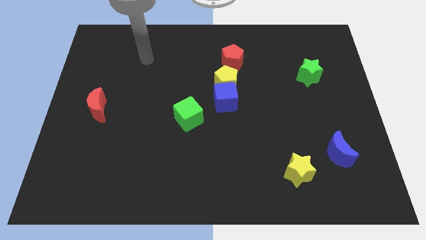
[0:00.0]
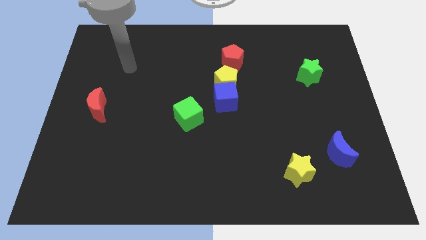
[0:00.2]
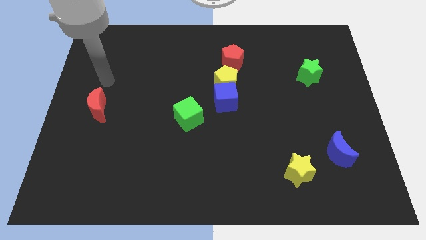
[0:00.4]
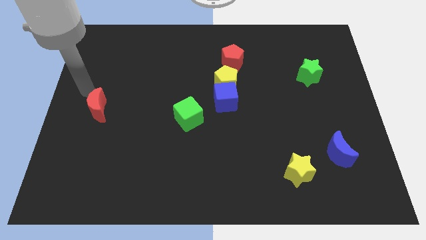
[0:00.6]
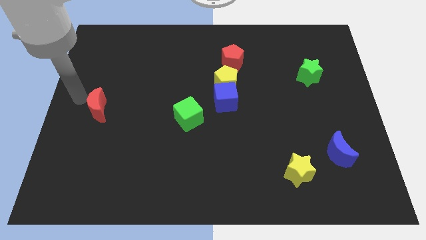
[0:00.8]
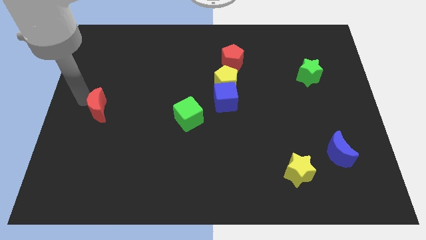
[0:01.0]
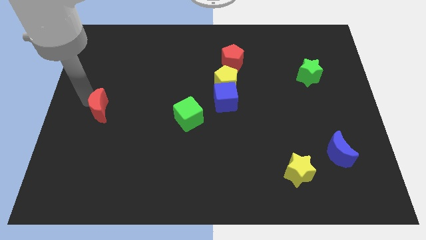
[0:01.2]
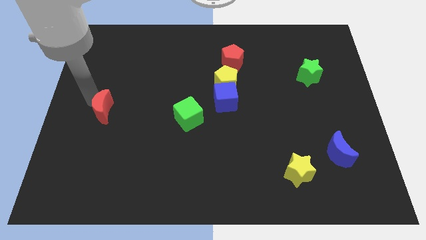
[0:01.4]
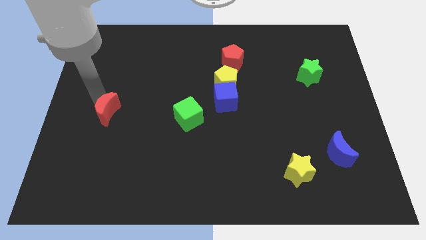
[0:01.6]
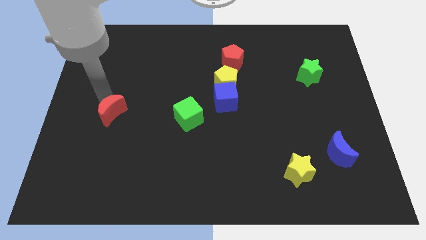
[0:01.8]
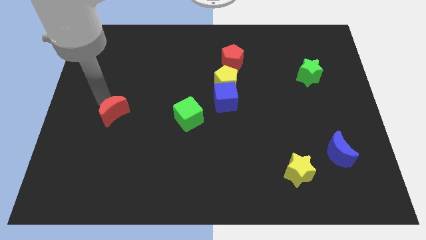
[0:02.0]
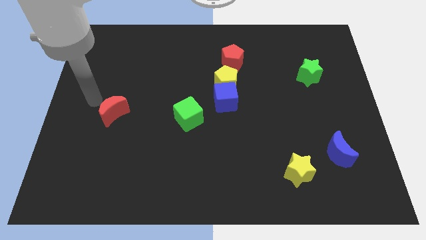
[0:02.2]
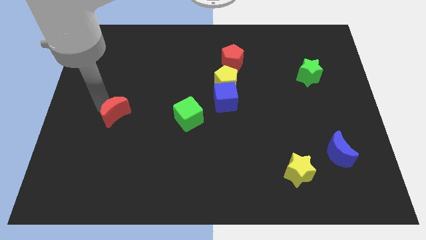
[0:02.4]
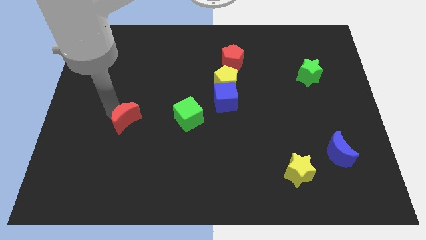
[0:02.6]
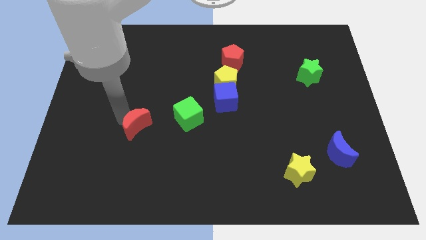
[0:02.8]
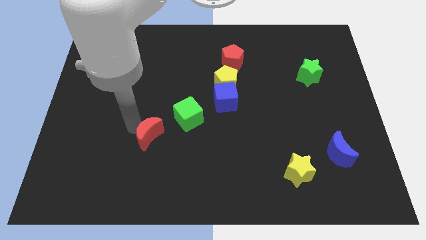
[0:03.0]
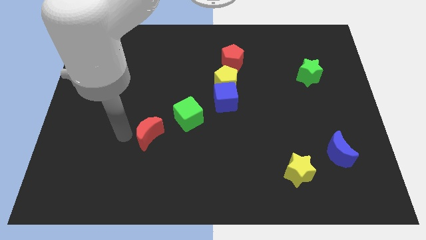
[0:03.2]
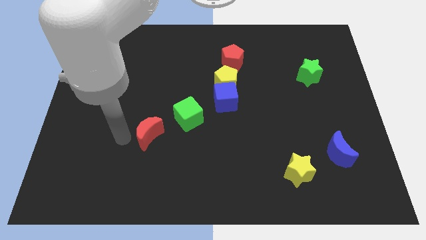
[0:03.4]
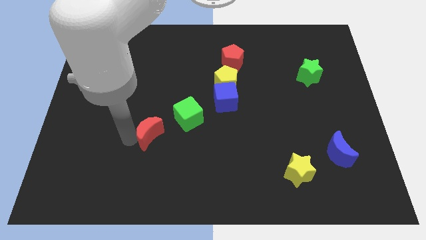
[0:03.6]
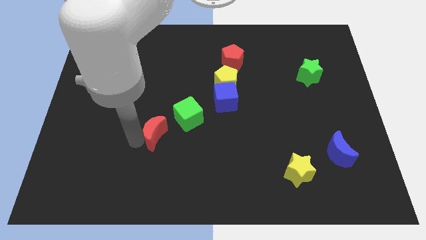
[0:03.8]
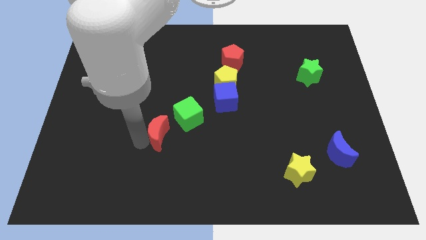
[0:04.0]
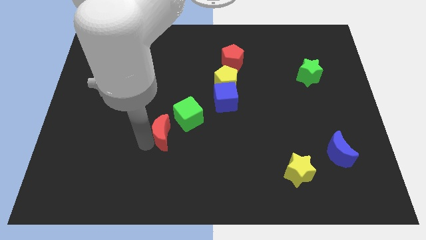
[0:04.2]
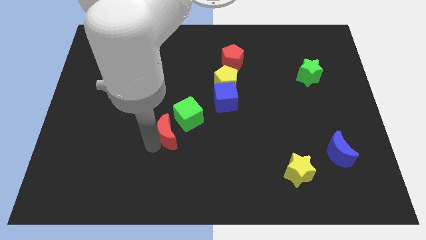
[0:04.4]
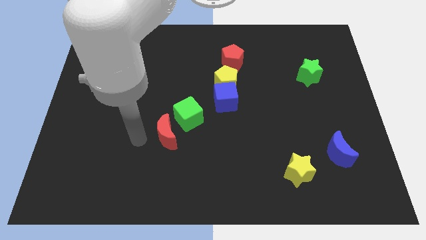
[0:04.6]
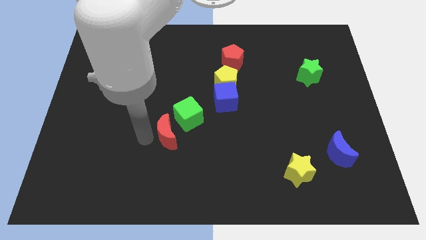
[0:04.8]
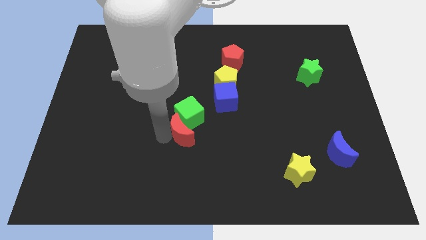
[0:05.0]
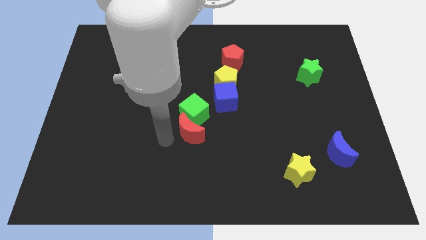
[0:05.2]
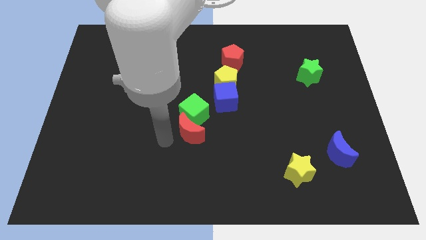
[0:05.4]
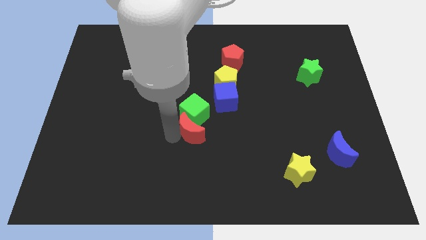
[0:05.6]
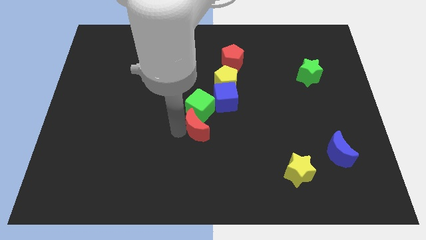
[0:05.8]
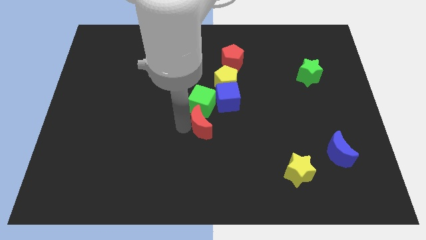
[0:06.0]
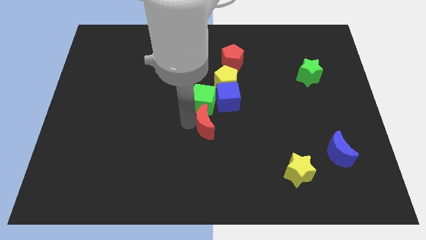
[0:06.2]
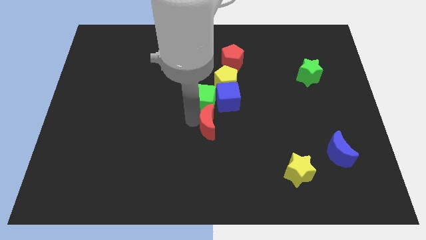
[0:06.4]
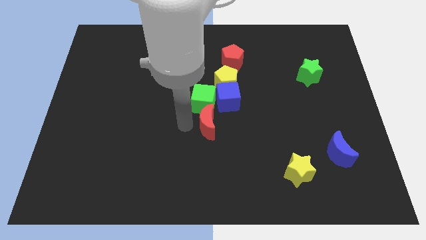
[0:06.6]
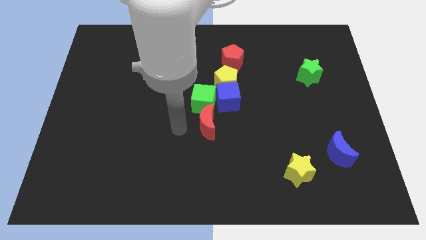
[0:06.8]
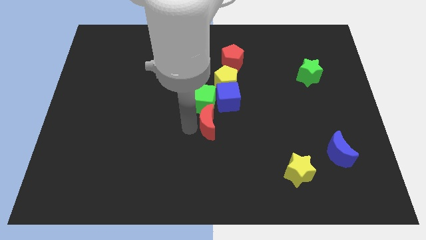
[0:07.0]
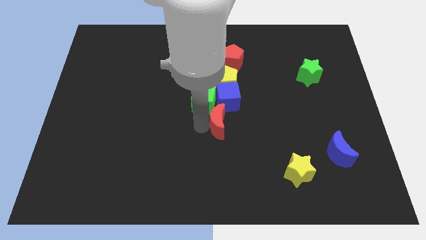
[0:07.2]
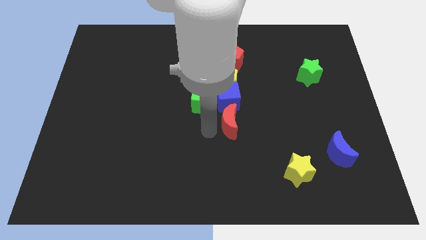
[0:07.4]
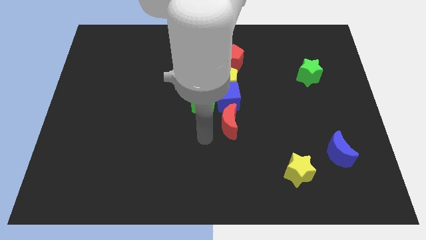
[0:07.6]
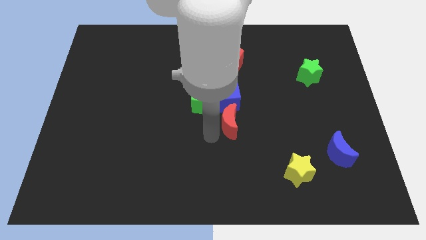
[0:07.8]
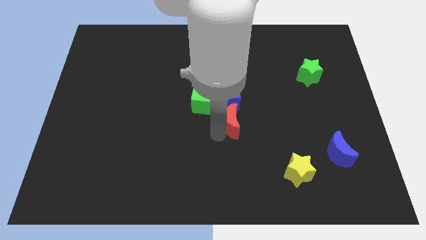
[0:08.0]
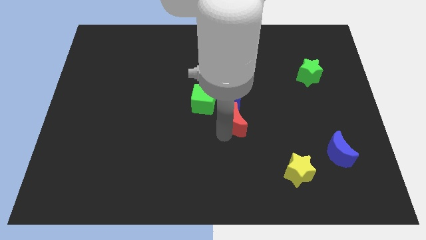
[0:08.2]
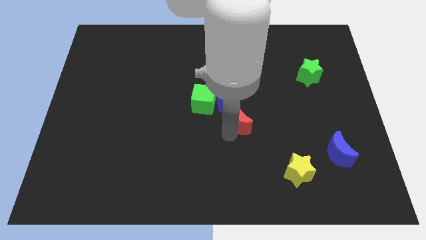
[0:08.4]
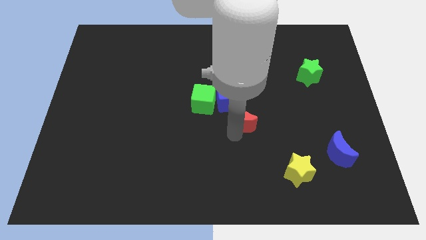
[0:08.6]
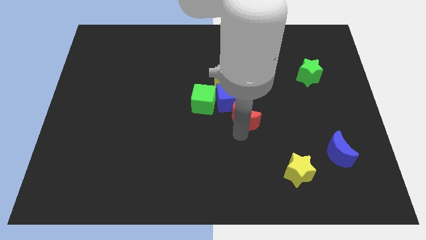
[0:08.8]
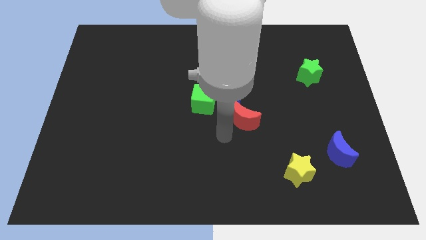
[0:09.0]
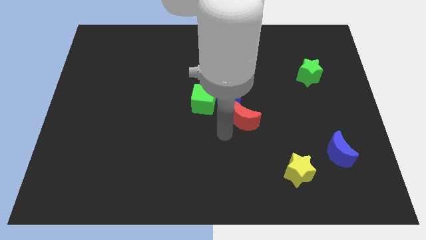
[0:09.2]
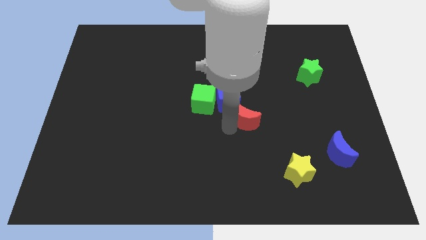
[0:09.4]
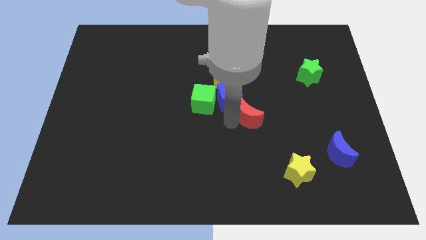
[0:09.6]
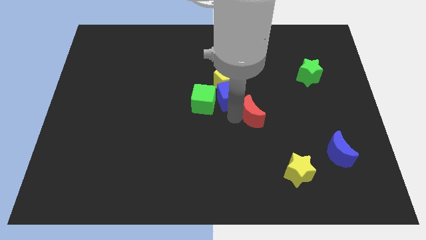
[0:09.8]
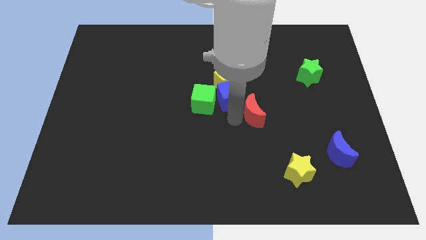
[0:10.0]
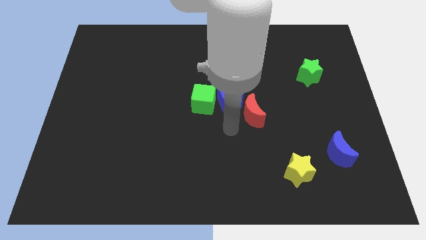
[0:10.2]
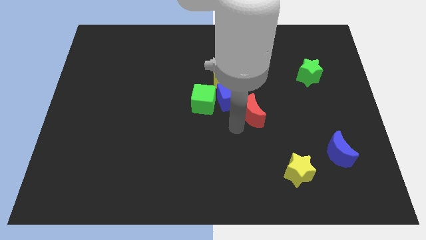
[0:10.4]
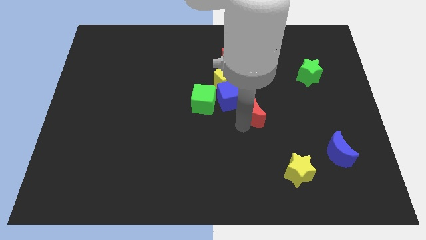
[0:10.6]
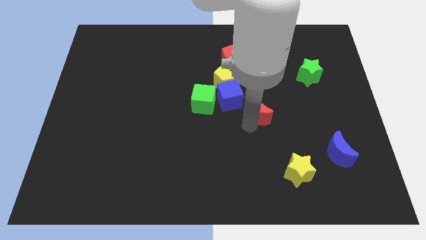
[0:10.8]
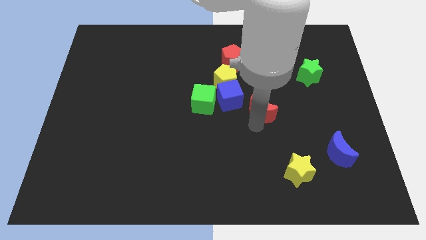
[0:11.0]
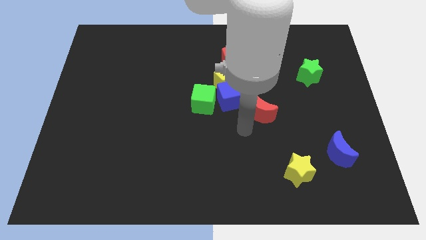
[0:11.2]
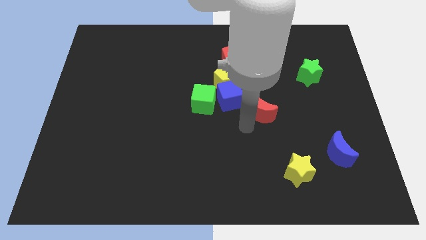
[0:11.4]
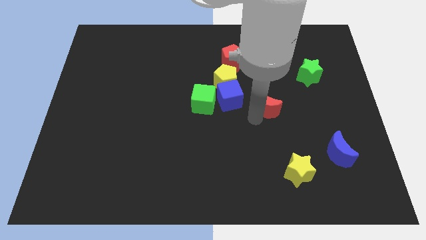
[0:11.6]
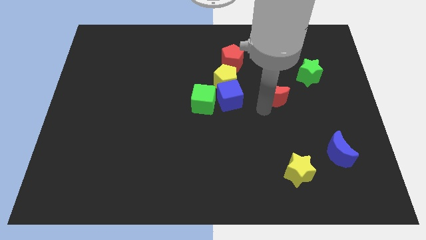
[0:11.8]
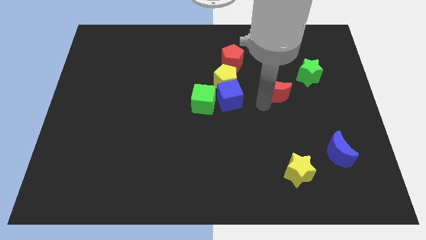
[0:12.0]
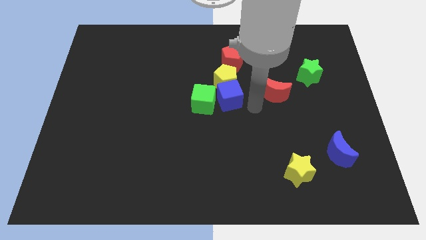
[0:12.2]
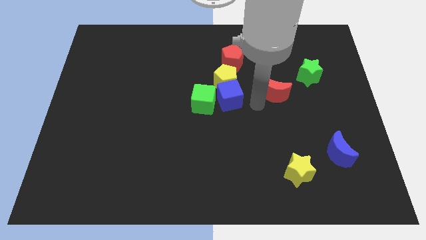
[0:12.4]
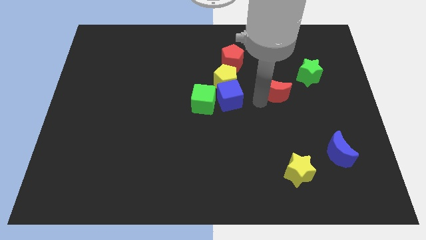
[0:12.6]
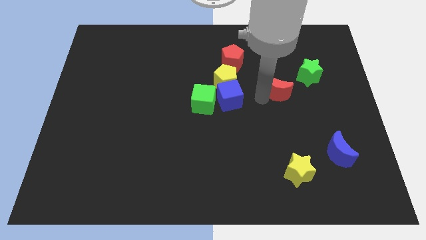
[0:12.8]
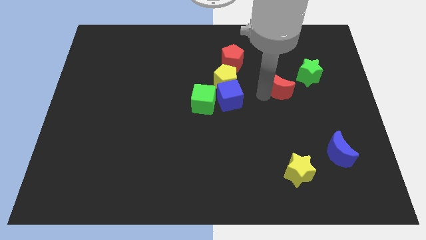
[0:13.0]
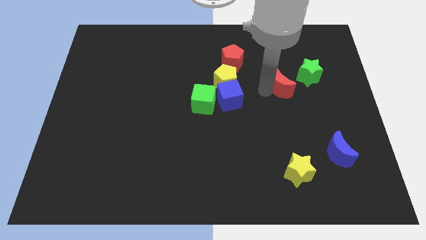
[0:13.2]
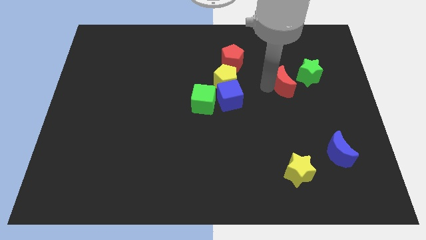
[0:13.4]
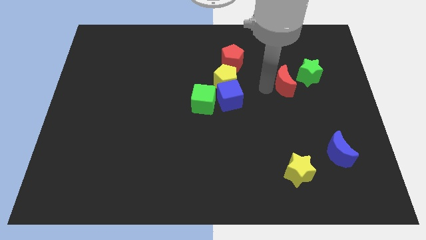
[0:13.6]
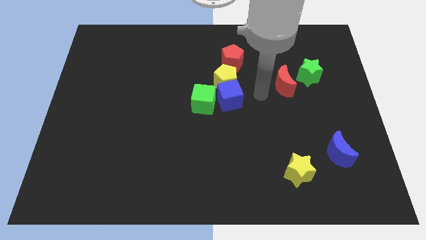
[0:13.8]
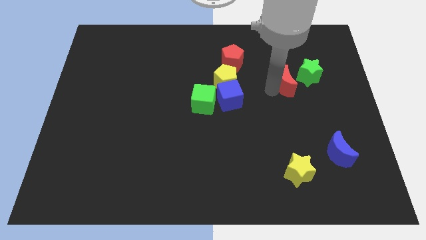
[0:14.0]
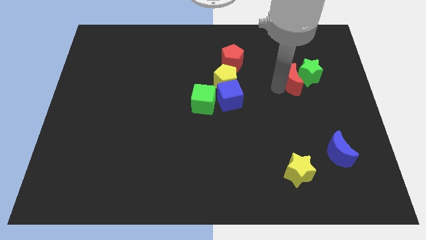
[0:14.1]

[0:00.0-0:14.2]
move the red moon towards the green star
